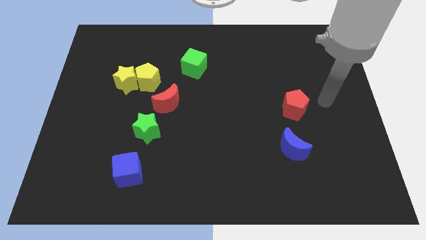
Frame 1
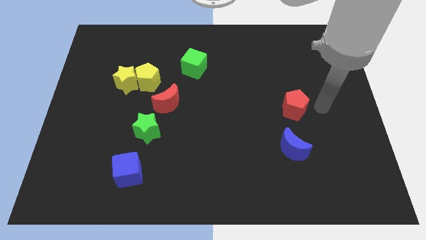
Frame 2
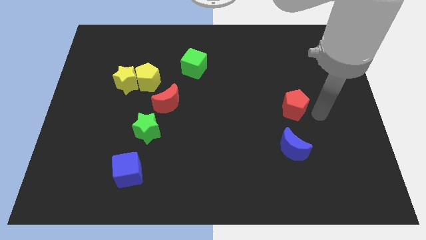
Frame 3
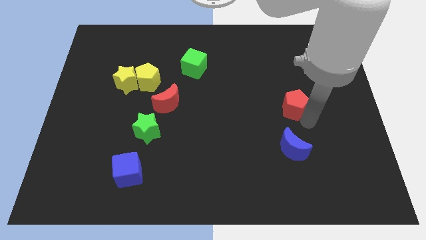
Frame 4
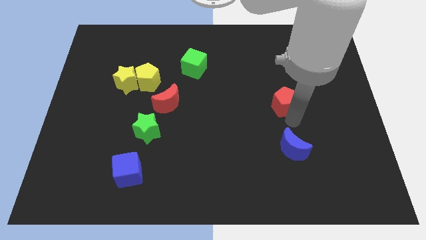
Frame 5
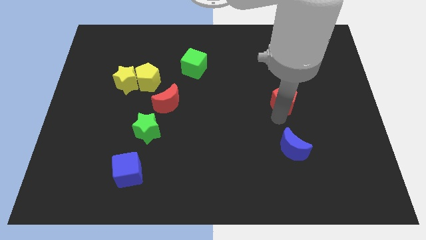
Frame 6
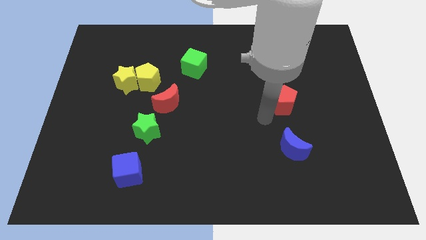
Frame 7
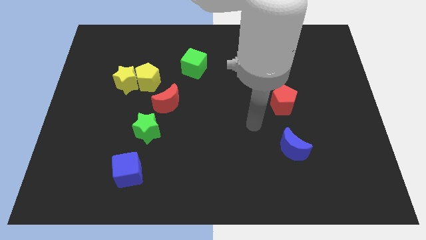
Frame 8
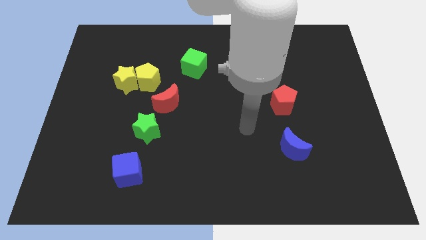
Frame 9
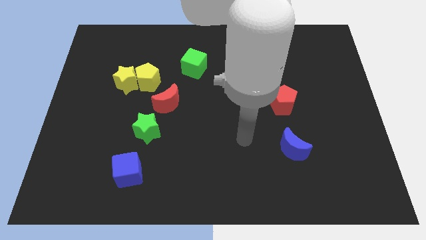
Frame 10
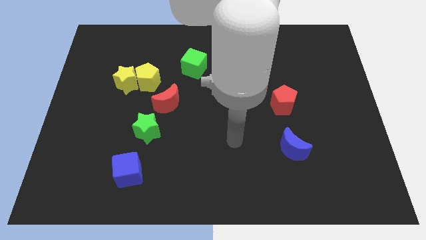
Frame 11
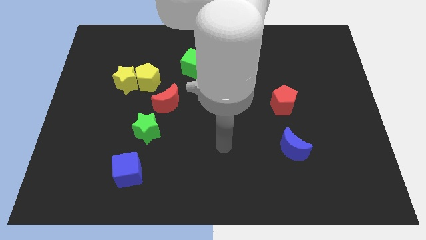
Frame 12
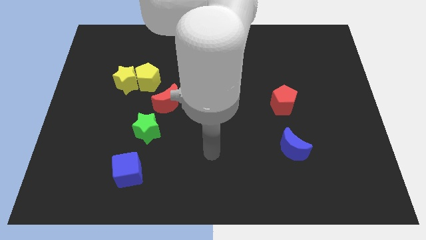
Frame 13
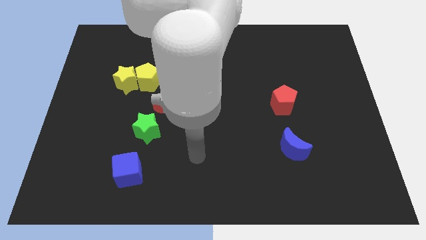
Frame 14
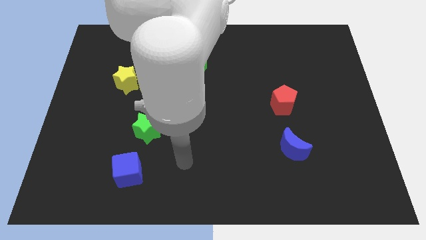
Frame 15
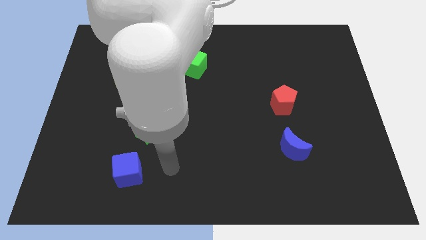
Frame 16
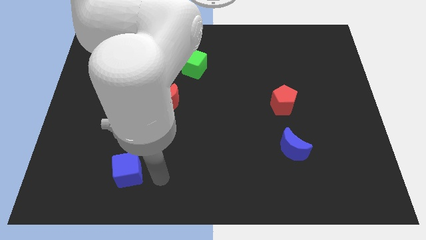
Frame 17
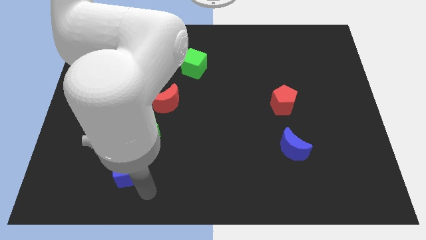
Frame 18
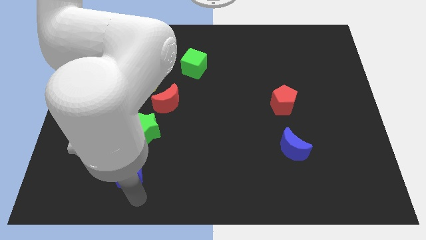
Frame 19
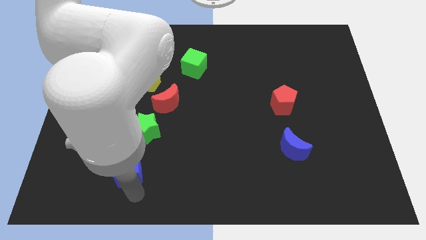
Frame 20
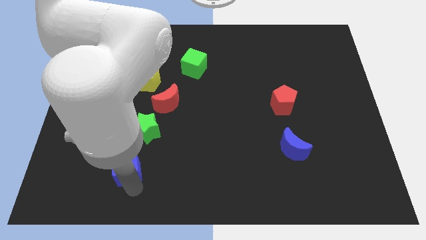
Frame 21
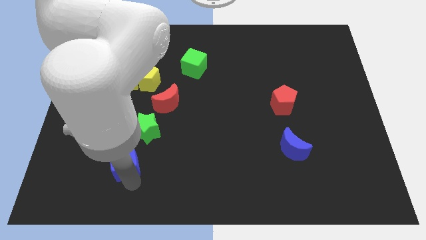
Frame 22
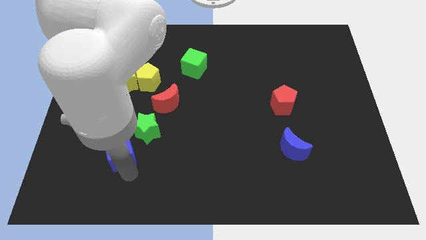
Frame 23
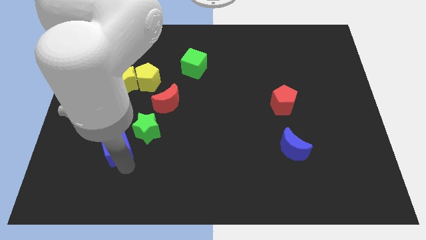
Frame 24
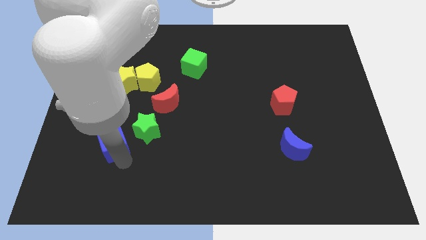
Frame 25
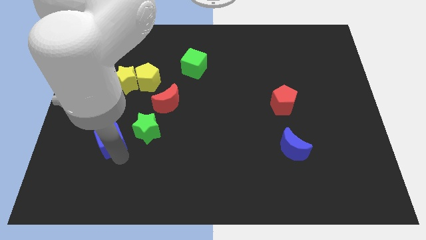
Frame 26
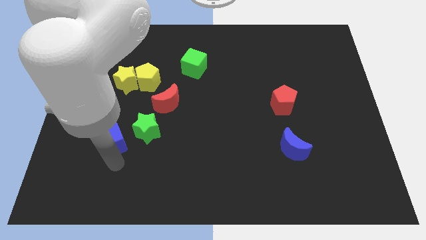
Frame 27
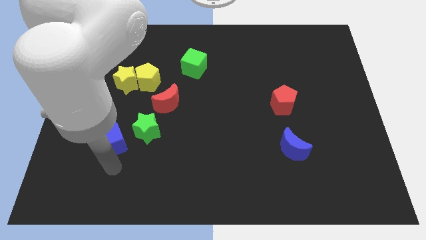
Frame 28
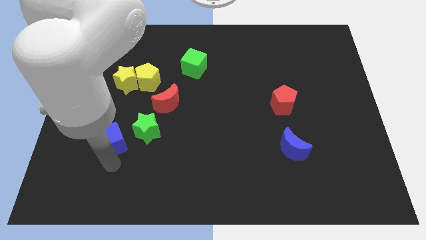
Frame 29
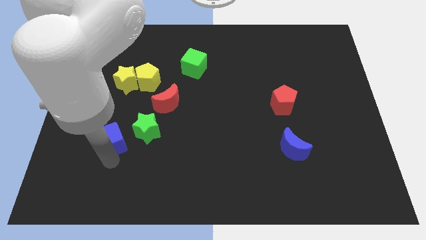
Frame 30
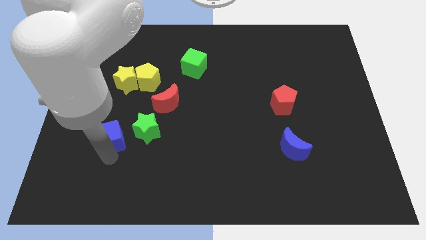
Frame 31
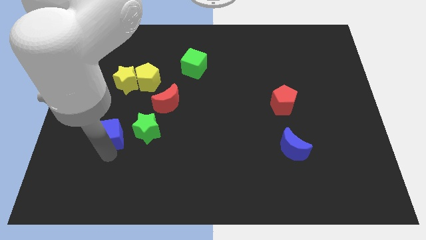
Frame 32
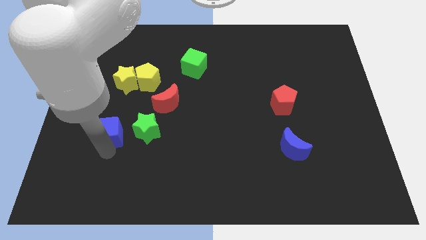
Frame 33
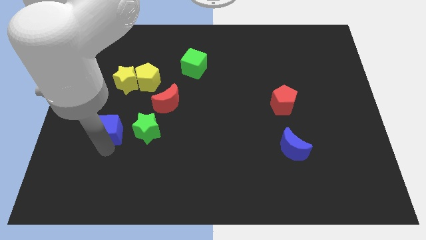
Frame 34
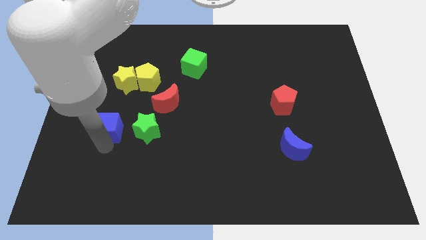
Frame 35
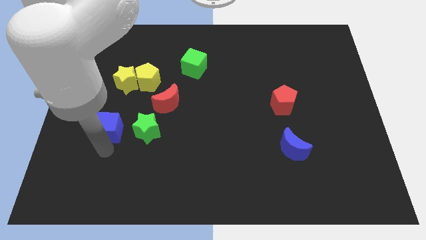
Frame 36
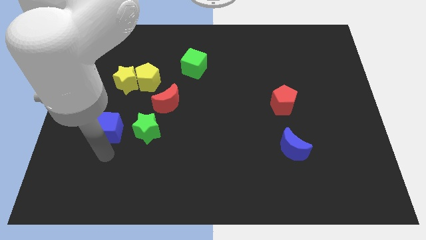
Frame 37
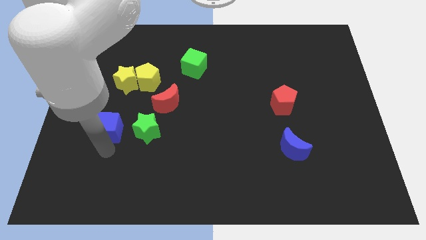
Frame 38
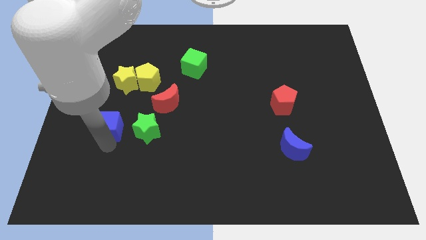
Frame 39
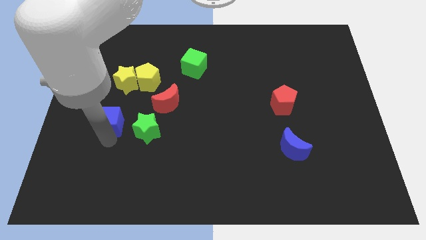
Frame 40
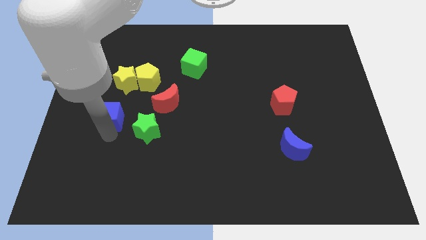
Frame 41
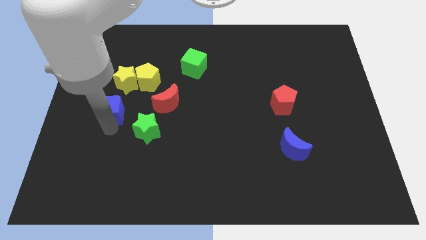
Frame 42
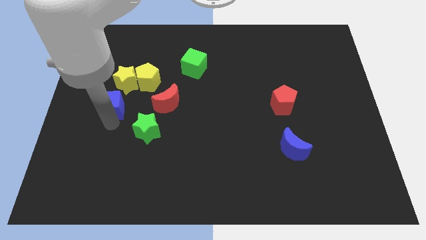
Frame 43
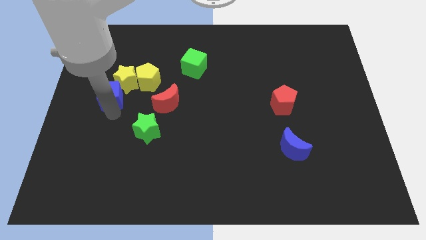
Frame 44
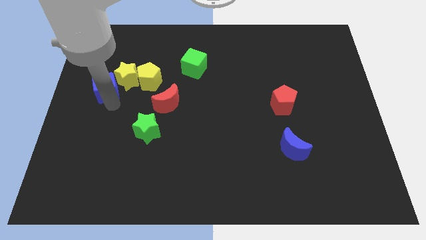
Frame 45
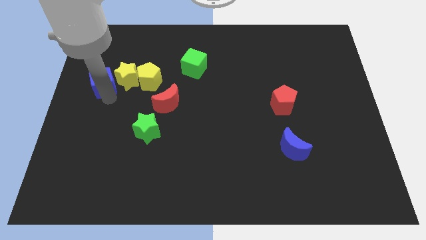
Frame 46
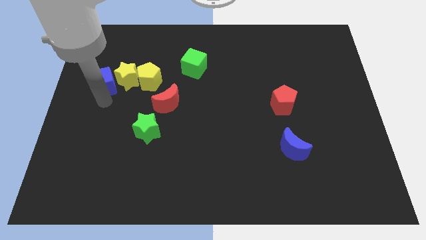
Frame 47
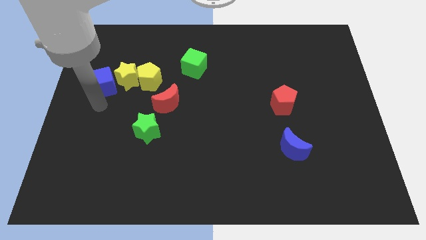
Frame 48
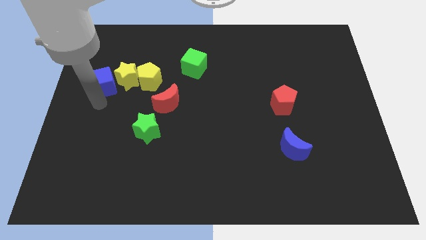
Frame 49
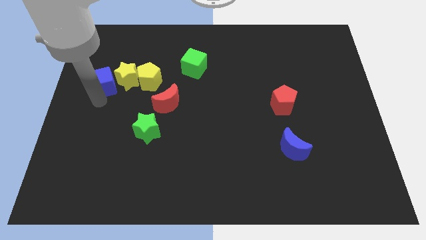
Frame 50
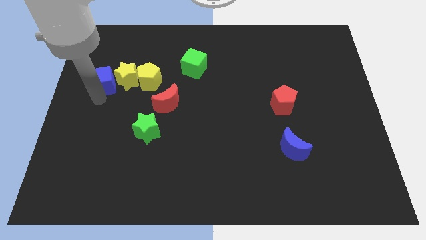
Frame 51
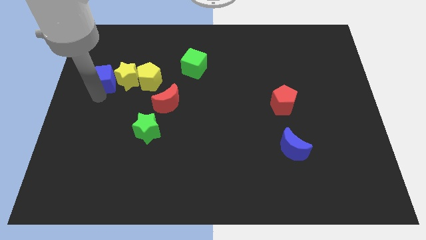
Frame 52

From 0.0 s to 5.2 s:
push the blue cube to the top left side of the yellow star

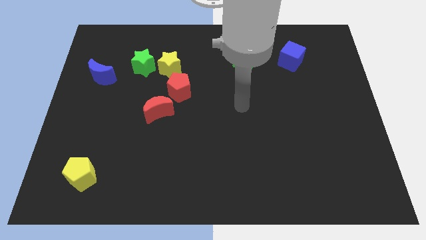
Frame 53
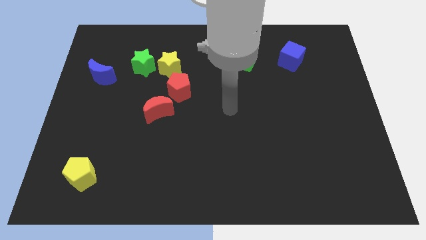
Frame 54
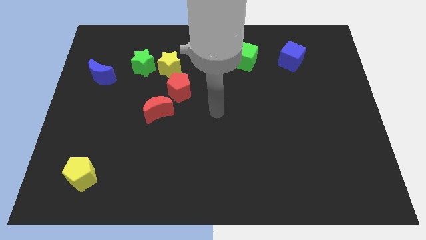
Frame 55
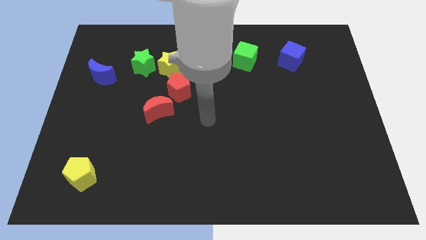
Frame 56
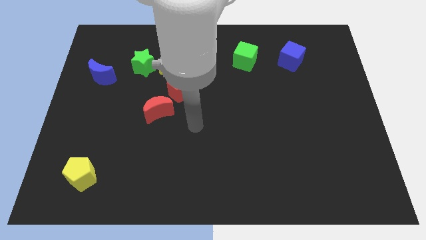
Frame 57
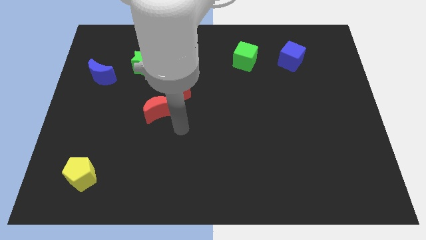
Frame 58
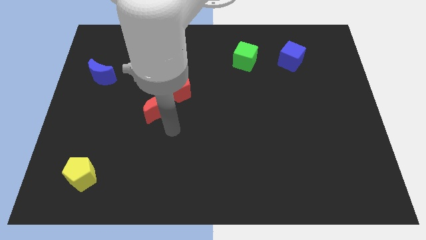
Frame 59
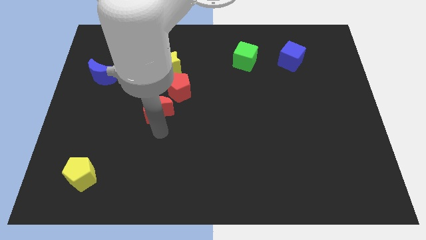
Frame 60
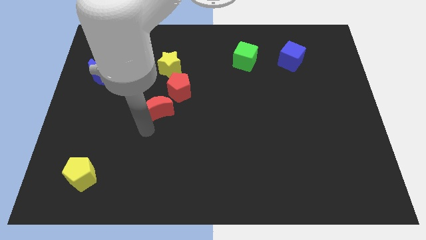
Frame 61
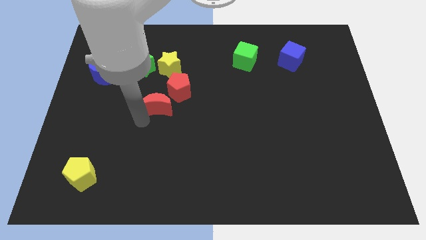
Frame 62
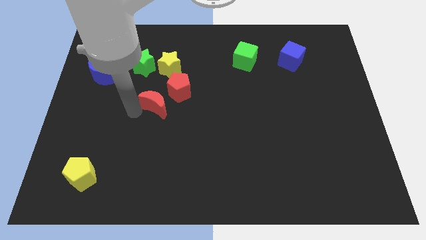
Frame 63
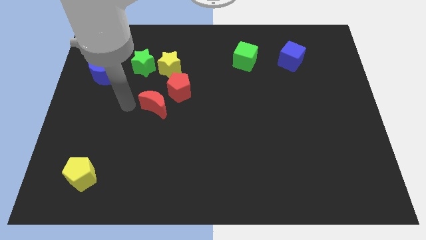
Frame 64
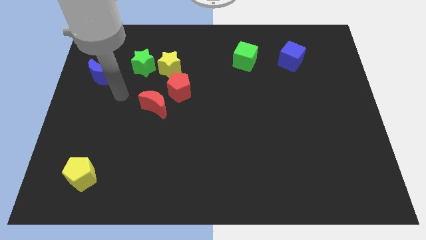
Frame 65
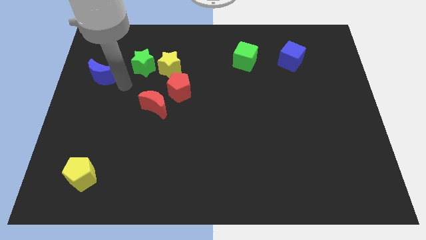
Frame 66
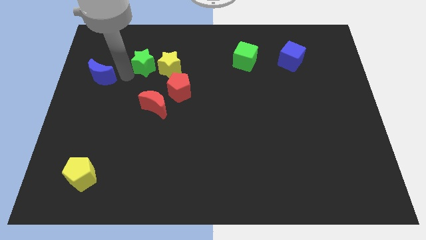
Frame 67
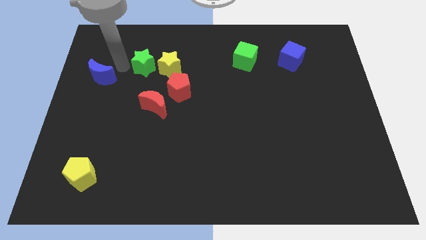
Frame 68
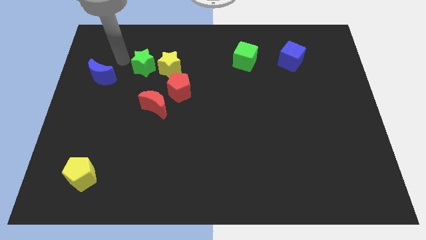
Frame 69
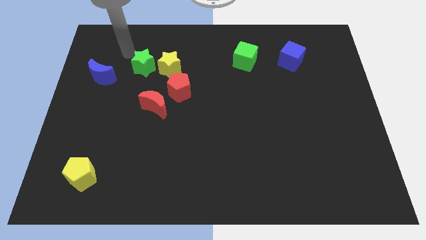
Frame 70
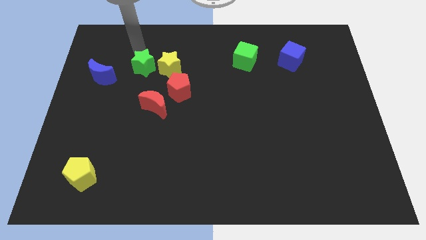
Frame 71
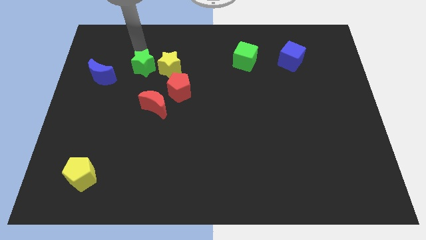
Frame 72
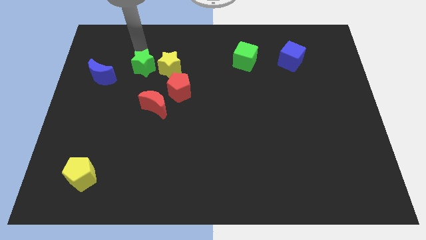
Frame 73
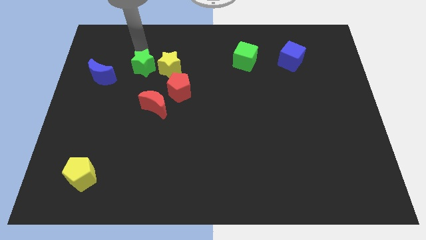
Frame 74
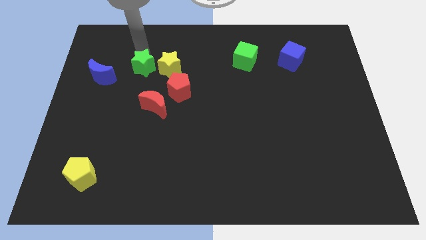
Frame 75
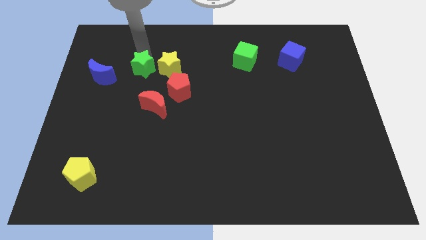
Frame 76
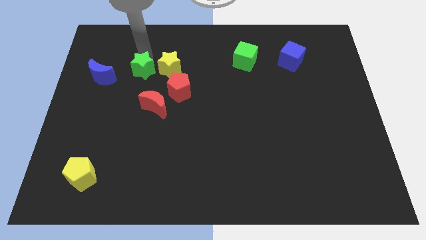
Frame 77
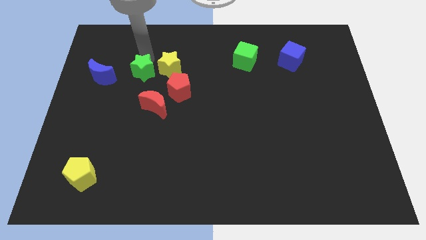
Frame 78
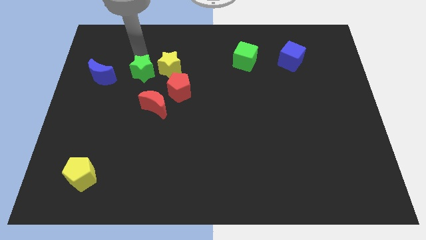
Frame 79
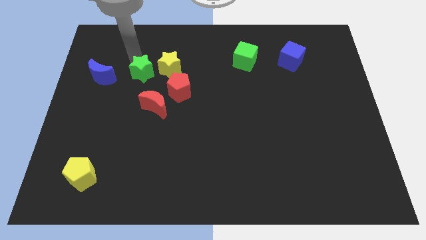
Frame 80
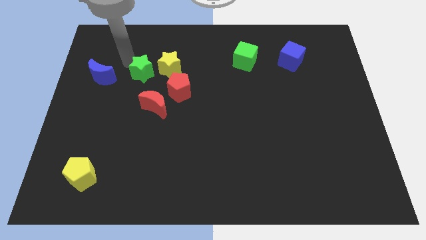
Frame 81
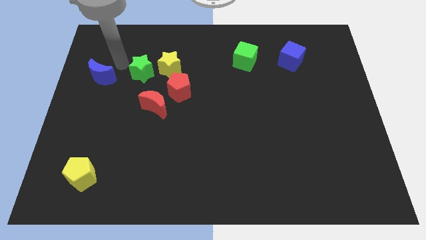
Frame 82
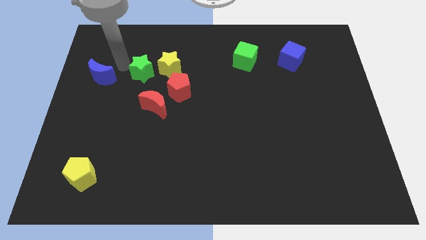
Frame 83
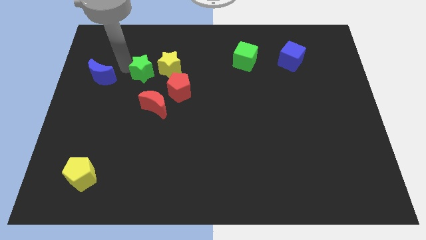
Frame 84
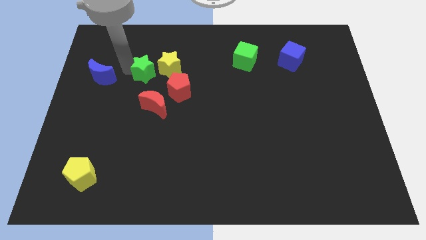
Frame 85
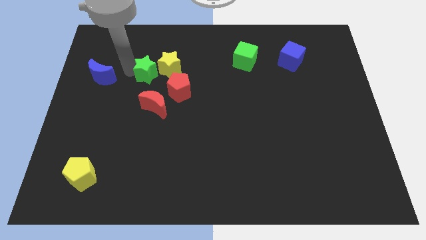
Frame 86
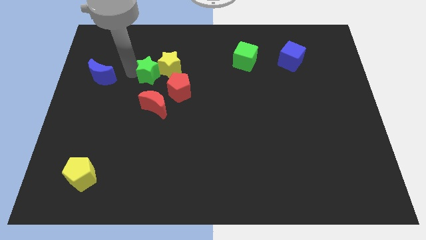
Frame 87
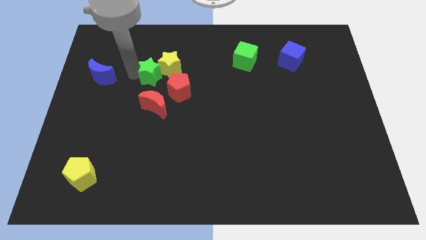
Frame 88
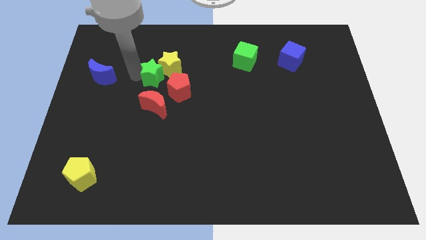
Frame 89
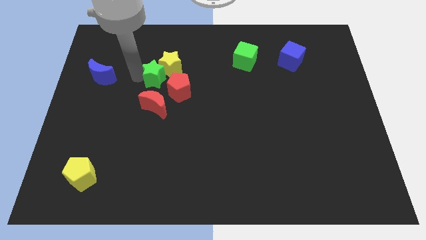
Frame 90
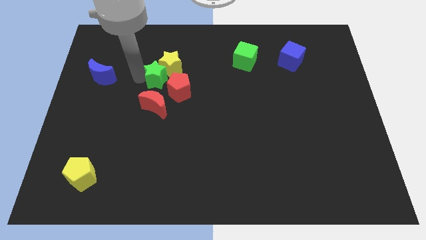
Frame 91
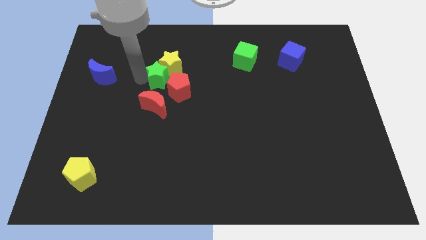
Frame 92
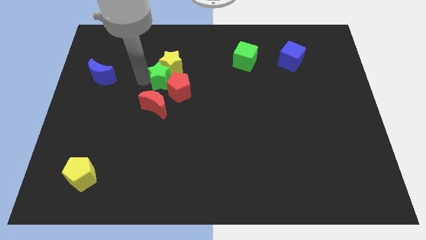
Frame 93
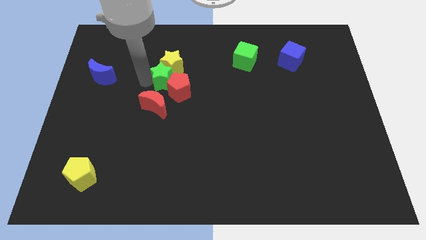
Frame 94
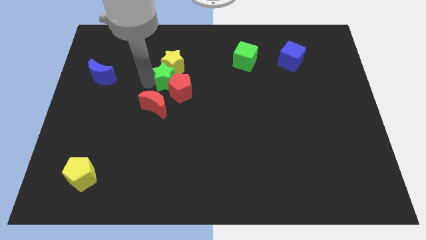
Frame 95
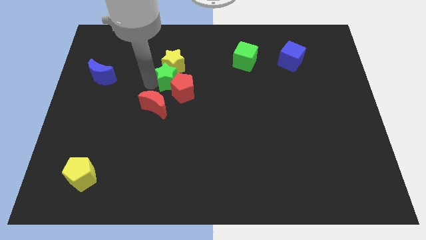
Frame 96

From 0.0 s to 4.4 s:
push the green star to the bottom right side of the yellow star
